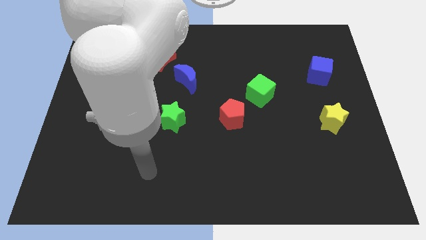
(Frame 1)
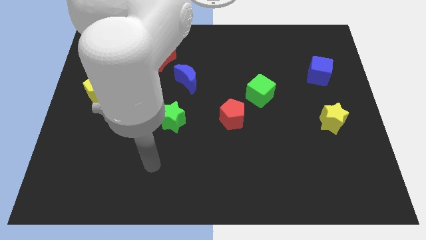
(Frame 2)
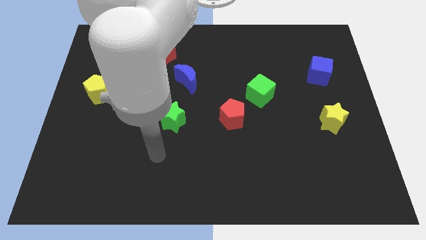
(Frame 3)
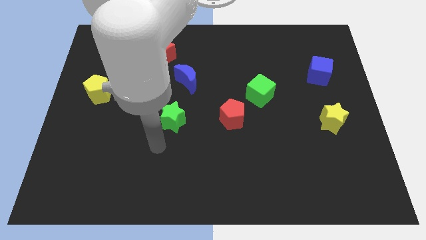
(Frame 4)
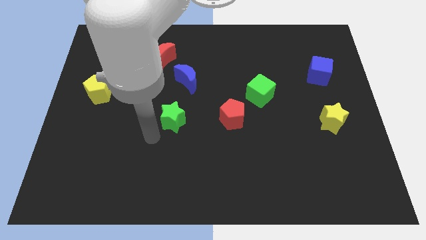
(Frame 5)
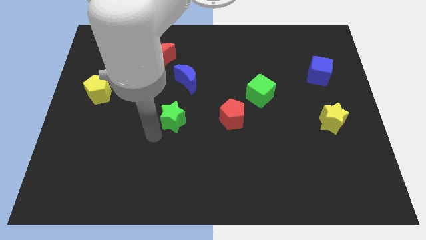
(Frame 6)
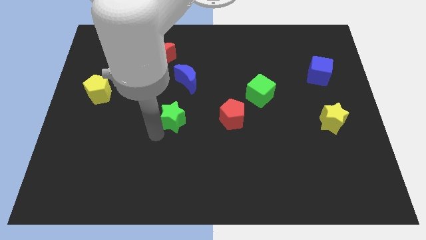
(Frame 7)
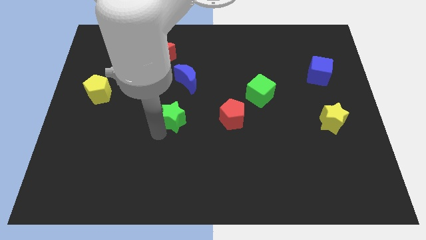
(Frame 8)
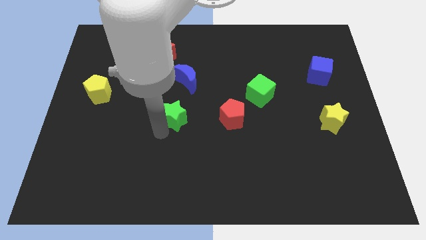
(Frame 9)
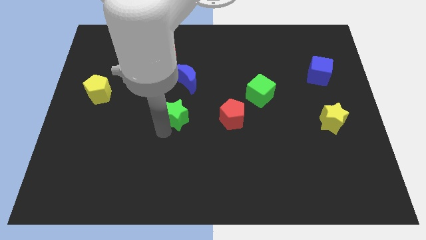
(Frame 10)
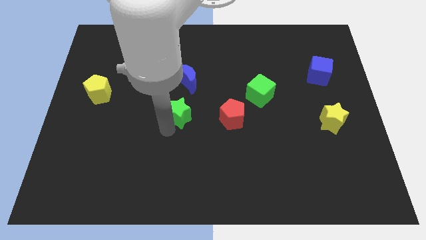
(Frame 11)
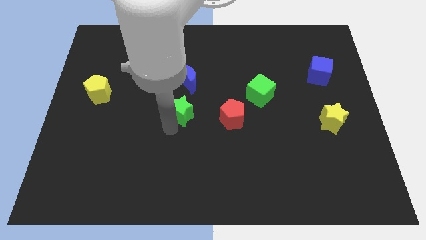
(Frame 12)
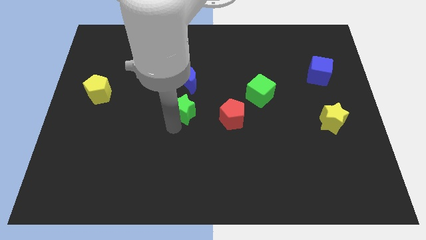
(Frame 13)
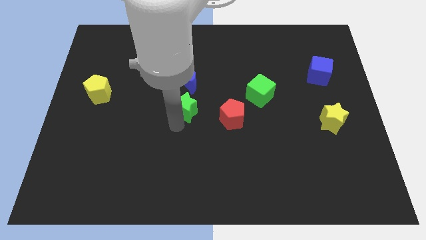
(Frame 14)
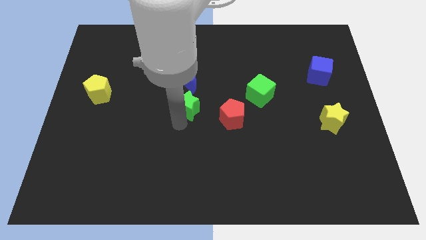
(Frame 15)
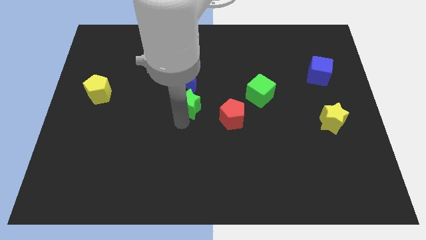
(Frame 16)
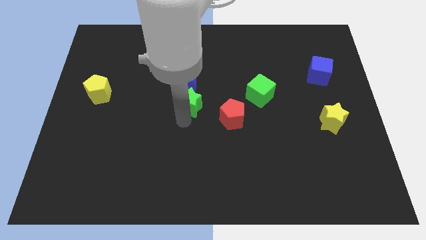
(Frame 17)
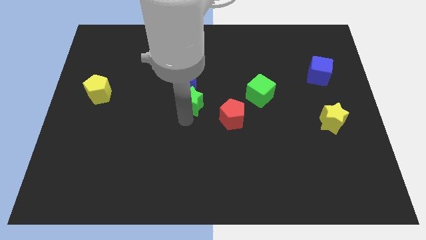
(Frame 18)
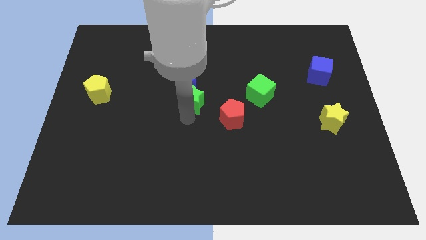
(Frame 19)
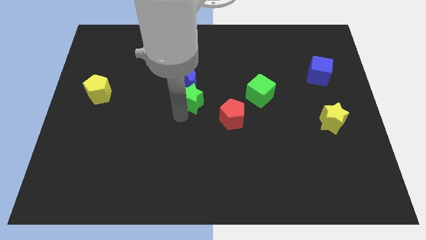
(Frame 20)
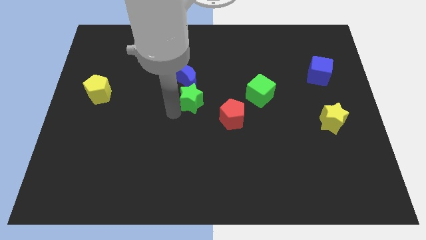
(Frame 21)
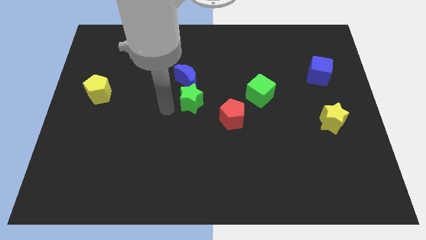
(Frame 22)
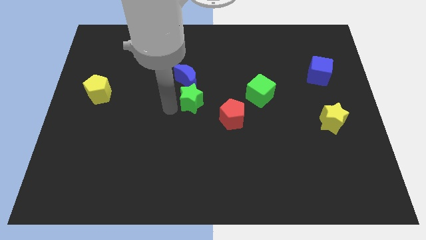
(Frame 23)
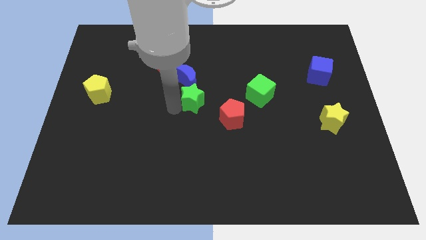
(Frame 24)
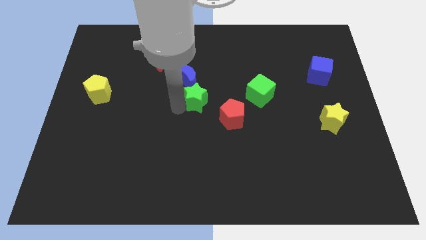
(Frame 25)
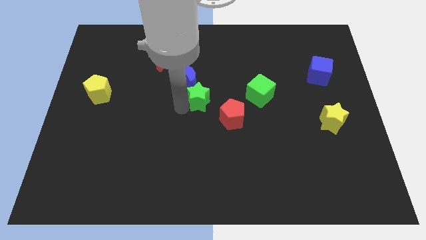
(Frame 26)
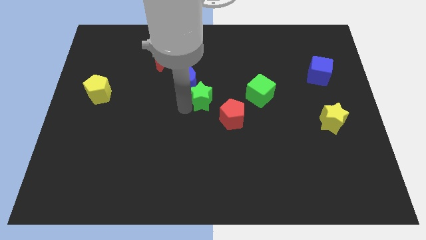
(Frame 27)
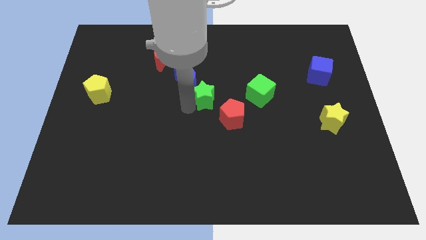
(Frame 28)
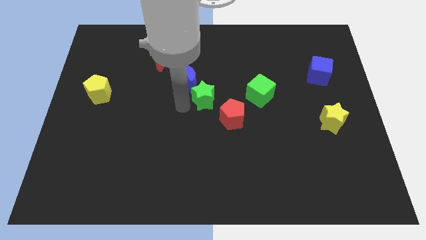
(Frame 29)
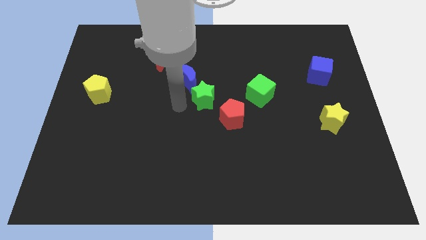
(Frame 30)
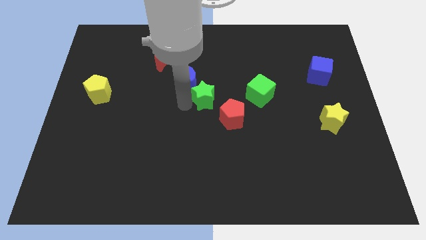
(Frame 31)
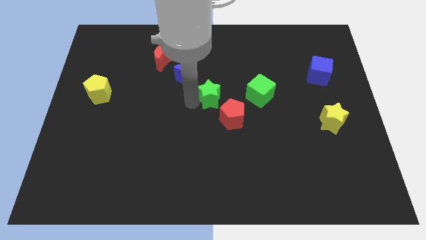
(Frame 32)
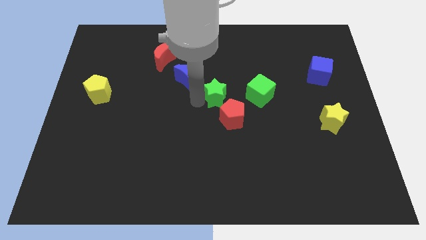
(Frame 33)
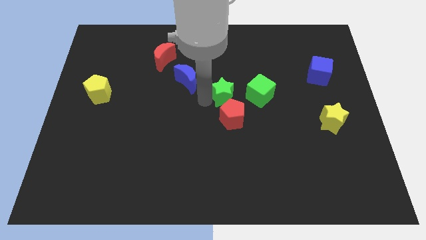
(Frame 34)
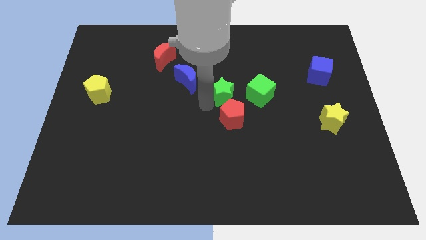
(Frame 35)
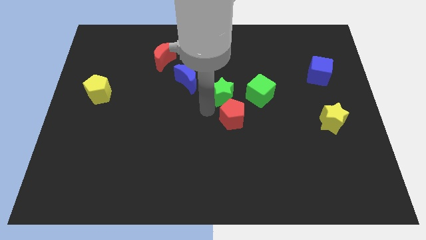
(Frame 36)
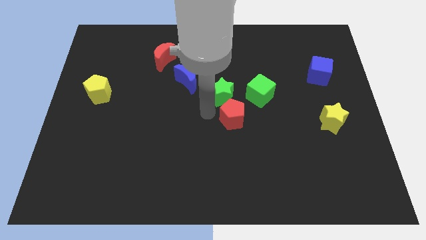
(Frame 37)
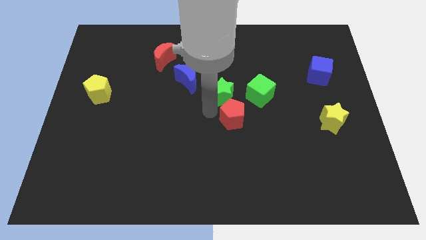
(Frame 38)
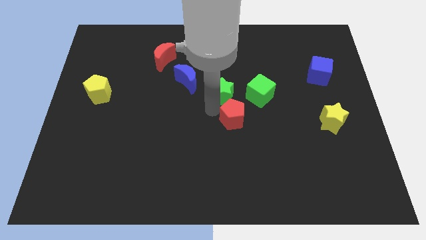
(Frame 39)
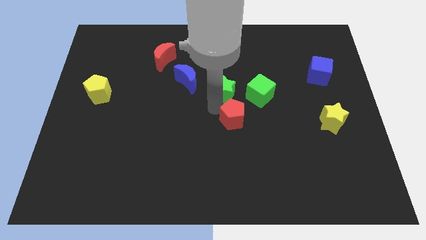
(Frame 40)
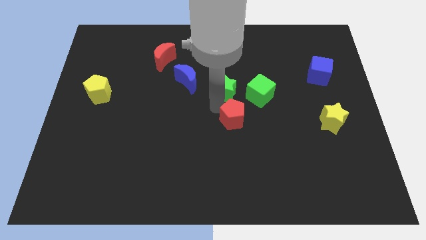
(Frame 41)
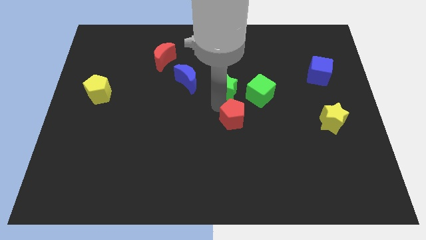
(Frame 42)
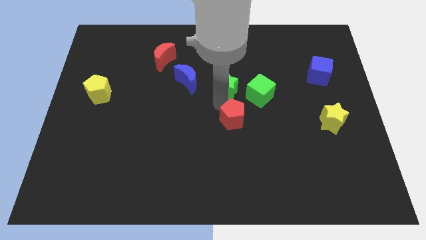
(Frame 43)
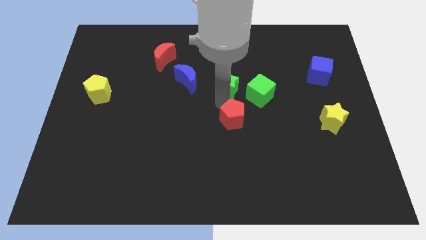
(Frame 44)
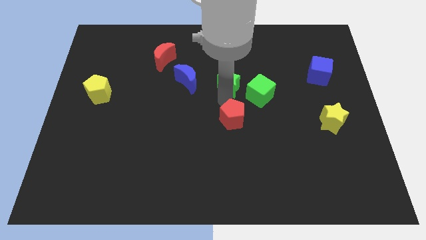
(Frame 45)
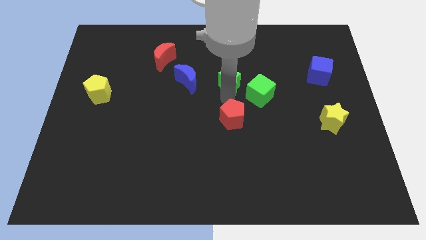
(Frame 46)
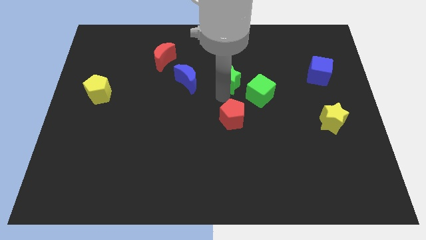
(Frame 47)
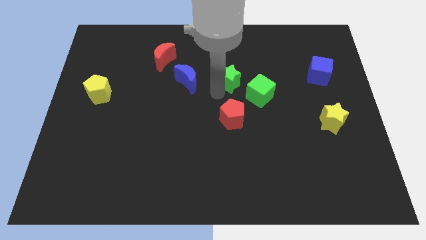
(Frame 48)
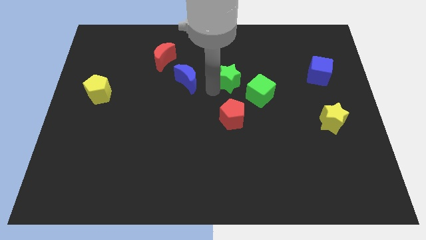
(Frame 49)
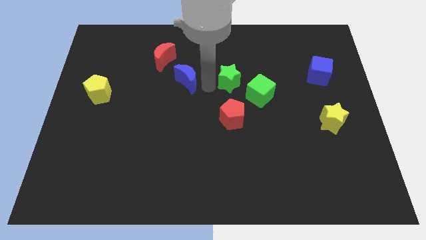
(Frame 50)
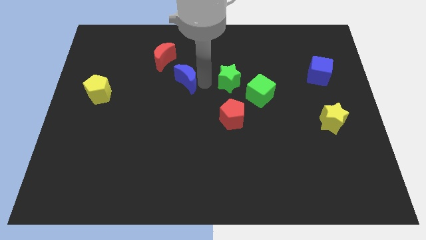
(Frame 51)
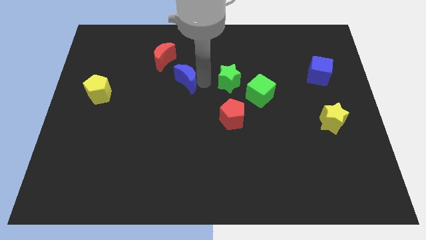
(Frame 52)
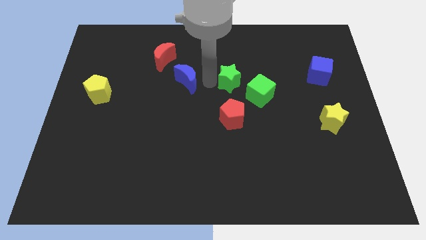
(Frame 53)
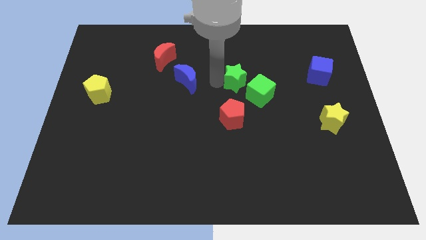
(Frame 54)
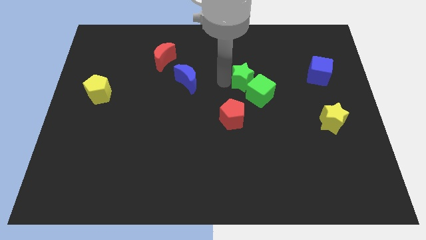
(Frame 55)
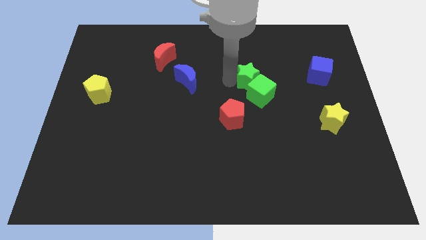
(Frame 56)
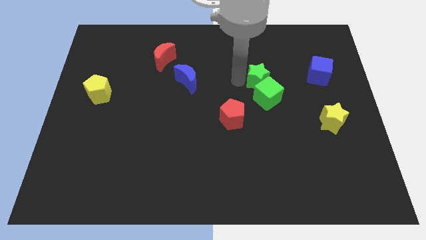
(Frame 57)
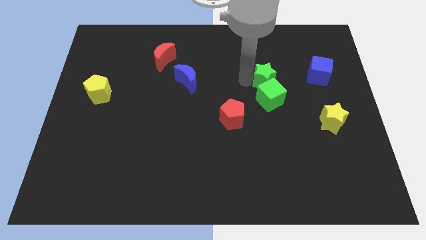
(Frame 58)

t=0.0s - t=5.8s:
move the green star to the top right of the green cube
